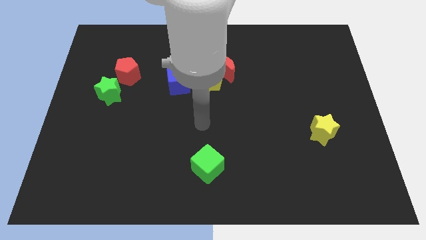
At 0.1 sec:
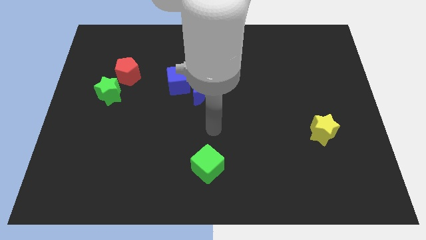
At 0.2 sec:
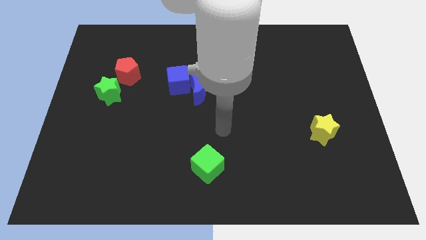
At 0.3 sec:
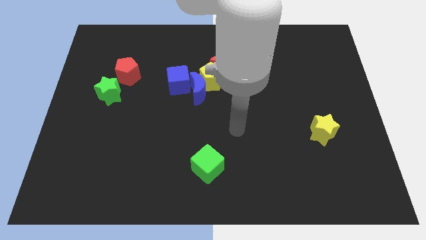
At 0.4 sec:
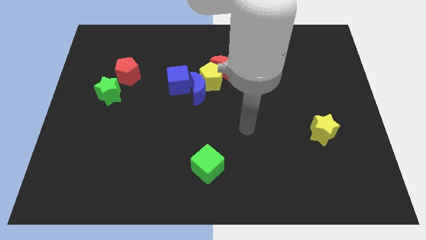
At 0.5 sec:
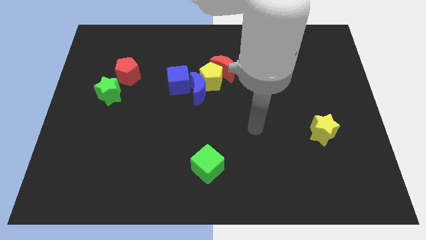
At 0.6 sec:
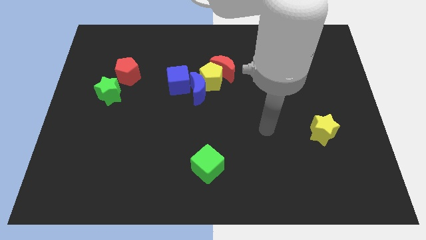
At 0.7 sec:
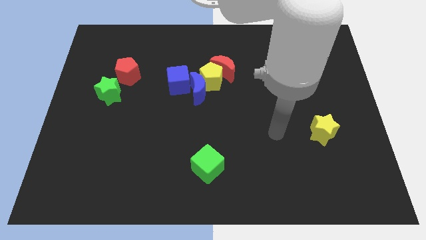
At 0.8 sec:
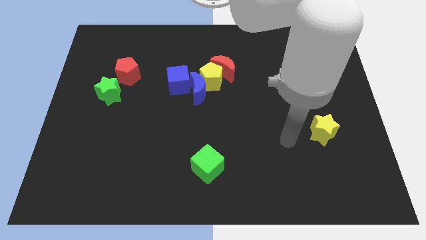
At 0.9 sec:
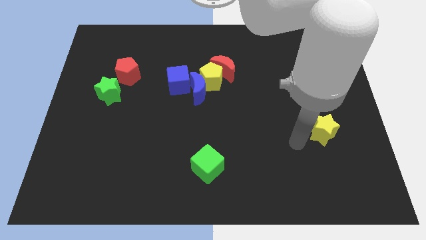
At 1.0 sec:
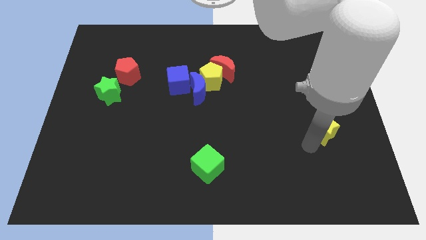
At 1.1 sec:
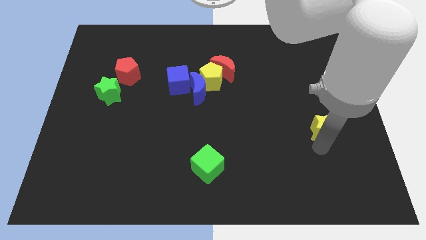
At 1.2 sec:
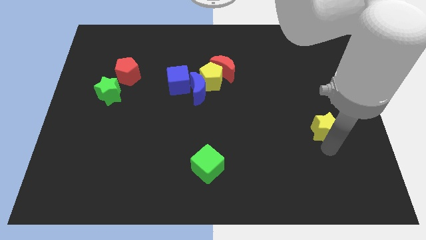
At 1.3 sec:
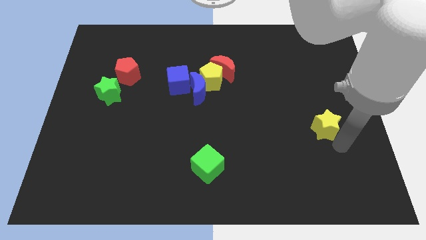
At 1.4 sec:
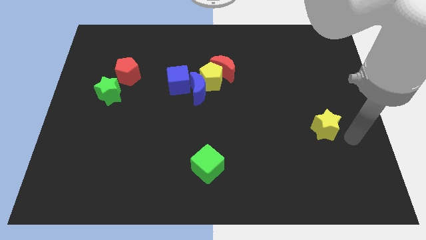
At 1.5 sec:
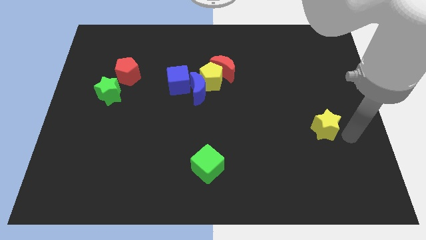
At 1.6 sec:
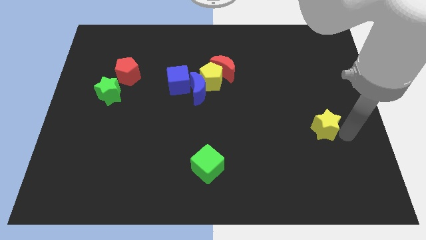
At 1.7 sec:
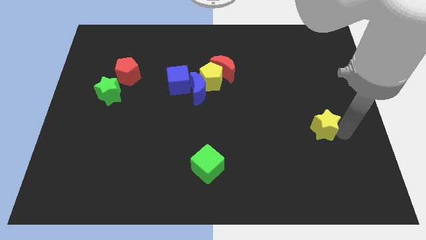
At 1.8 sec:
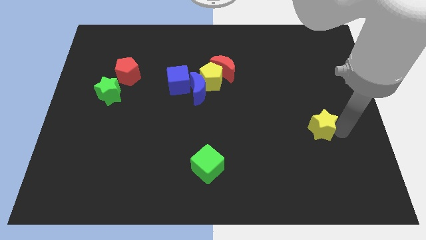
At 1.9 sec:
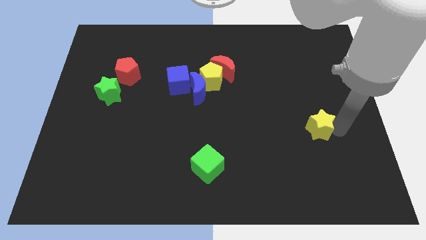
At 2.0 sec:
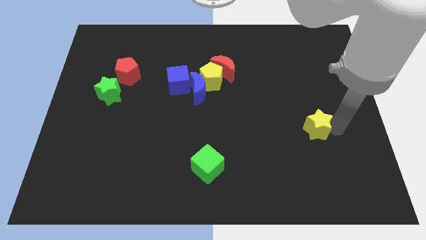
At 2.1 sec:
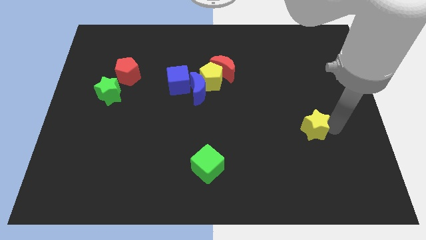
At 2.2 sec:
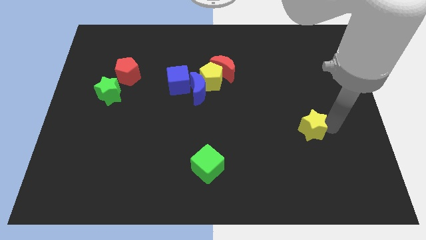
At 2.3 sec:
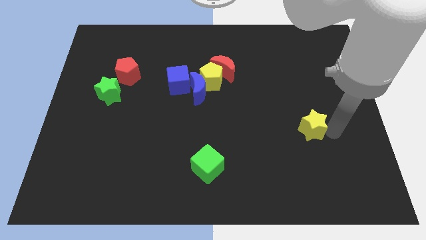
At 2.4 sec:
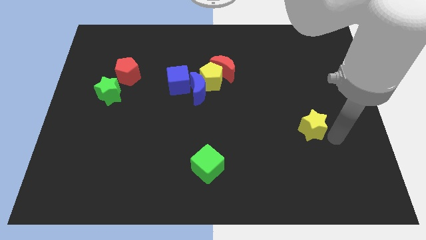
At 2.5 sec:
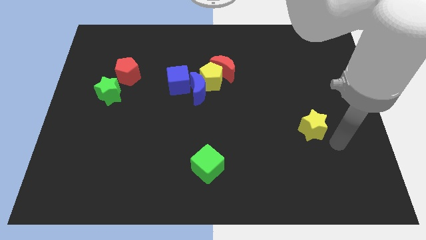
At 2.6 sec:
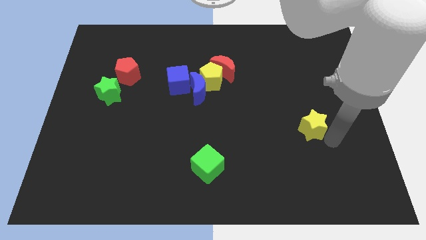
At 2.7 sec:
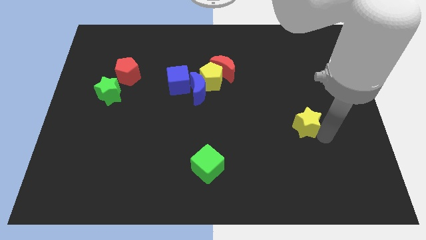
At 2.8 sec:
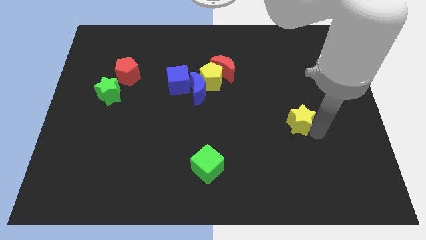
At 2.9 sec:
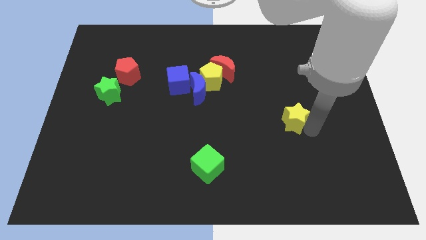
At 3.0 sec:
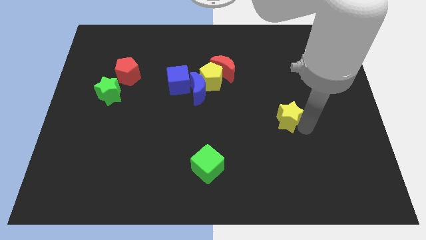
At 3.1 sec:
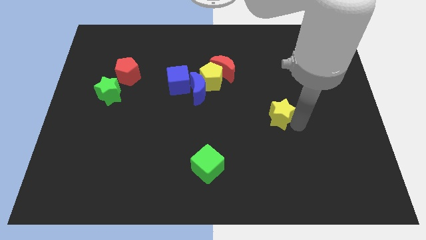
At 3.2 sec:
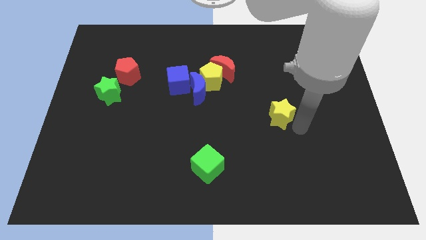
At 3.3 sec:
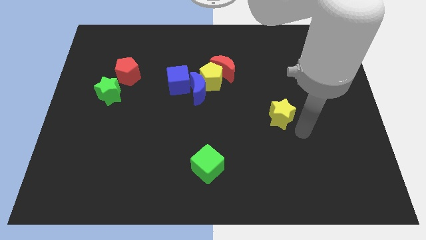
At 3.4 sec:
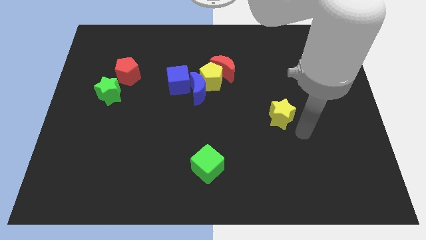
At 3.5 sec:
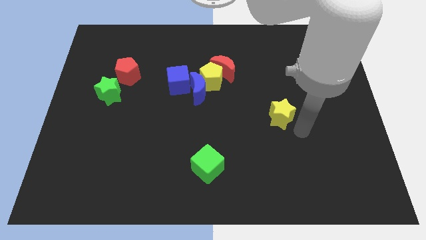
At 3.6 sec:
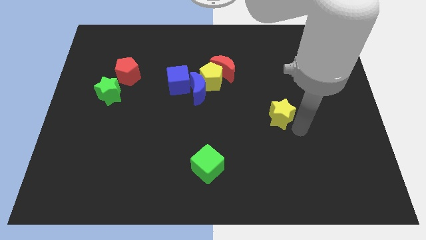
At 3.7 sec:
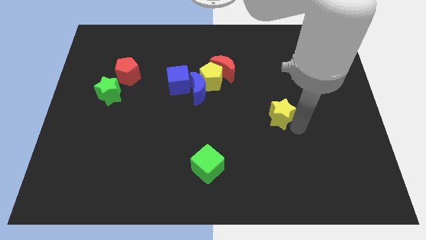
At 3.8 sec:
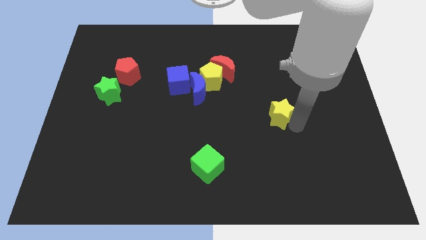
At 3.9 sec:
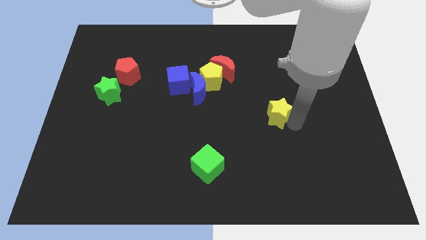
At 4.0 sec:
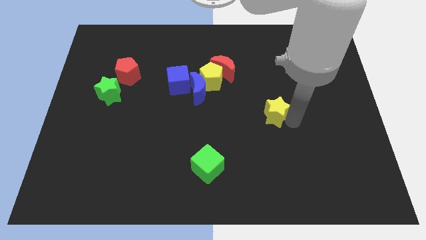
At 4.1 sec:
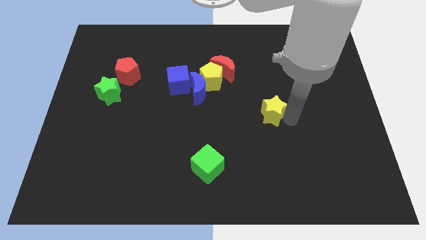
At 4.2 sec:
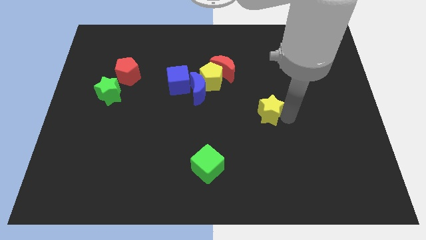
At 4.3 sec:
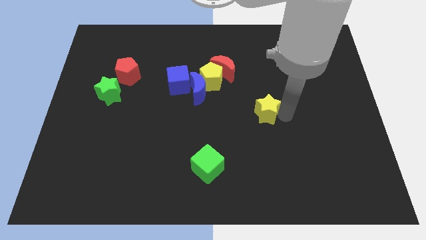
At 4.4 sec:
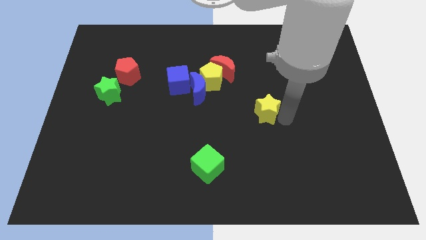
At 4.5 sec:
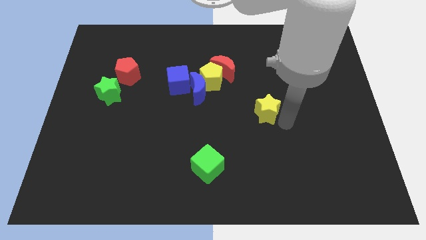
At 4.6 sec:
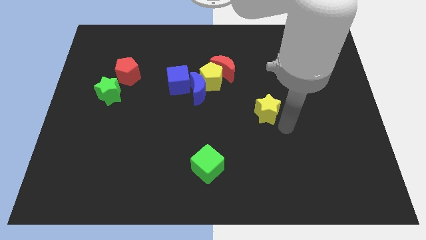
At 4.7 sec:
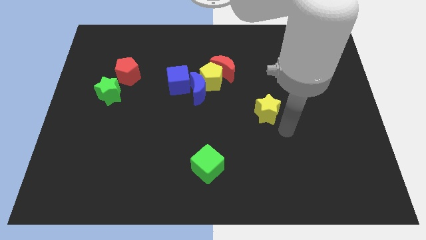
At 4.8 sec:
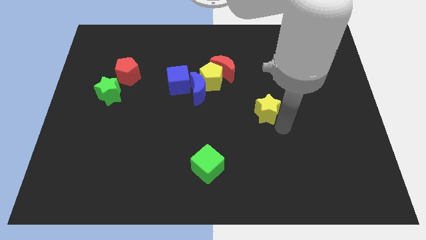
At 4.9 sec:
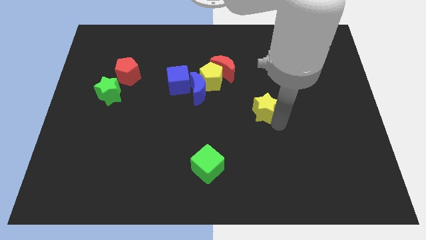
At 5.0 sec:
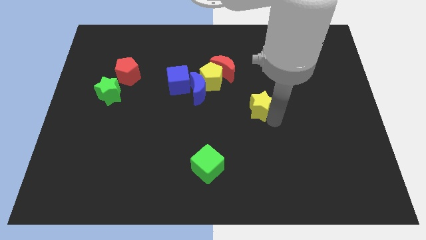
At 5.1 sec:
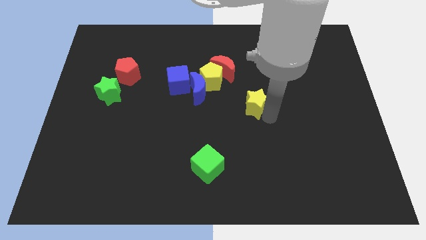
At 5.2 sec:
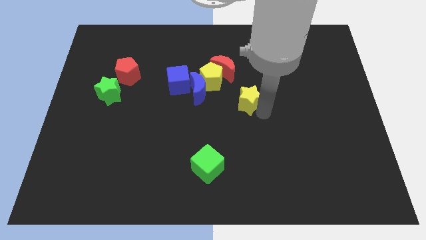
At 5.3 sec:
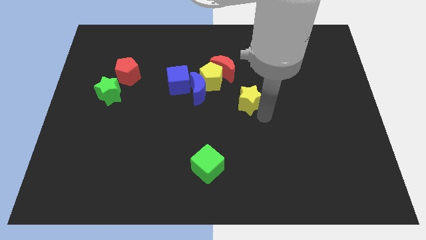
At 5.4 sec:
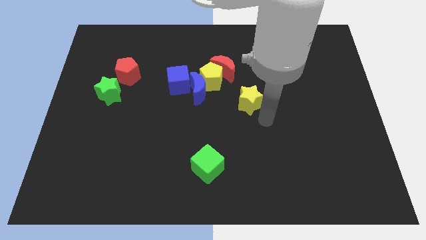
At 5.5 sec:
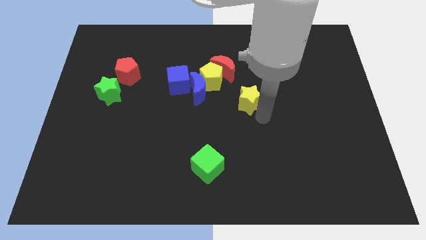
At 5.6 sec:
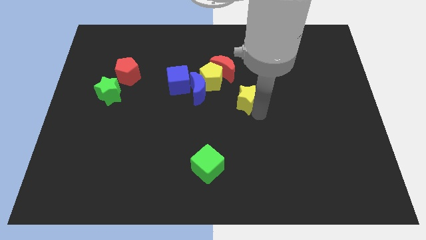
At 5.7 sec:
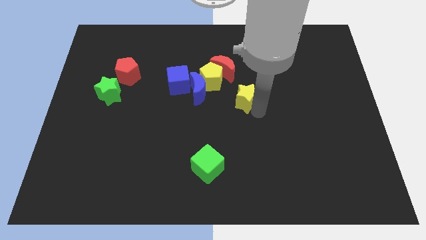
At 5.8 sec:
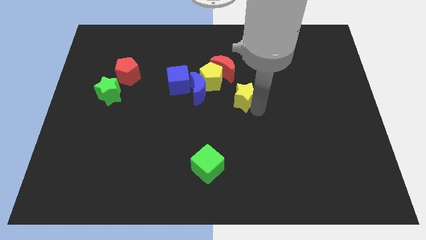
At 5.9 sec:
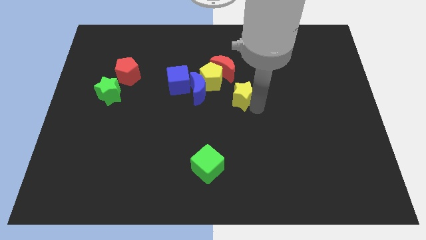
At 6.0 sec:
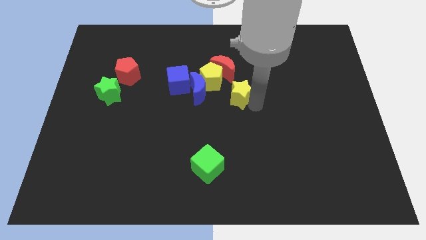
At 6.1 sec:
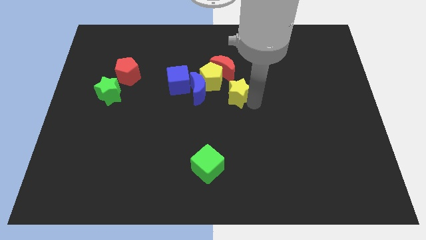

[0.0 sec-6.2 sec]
push the yellow star just right of the blue cube

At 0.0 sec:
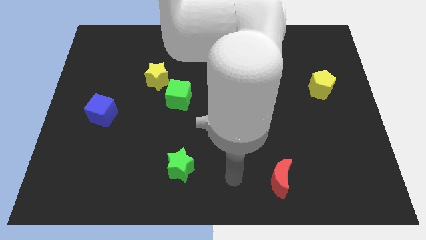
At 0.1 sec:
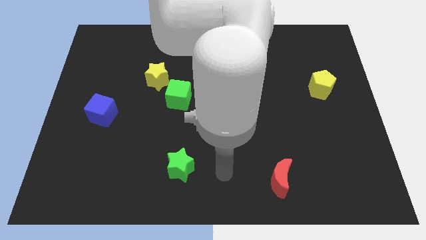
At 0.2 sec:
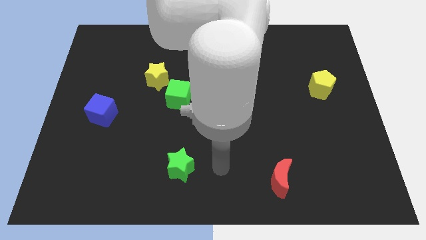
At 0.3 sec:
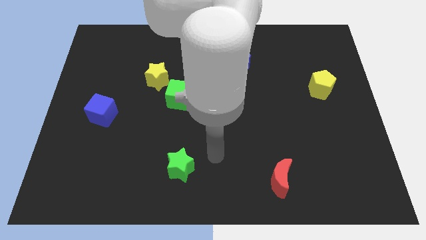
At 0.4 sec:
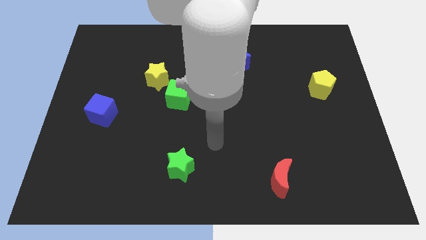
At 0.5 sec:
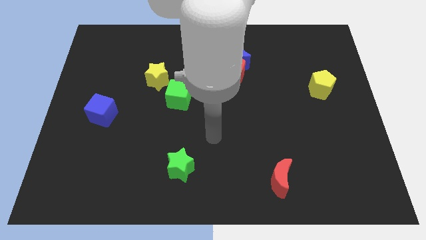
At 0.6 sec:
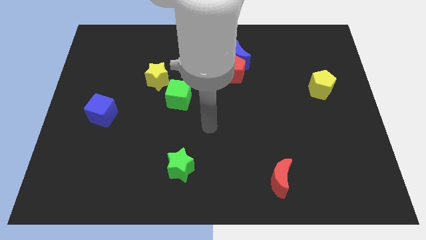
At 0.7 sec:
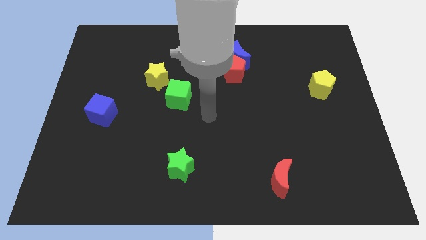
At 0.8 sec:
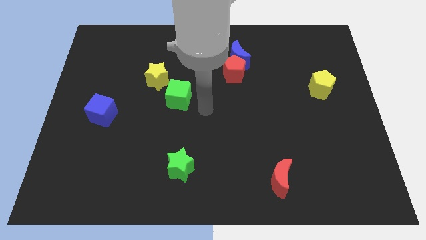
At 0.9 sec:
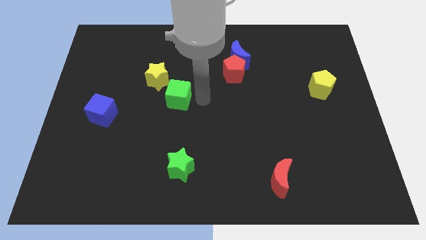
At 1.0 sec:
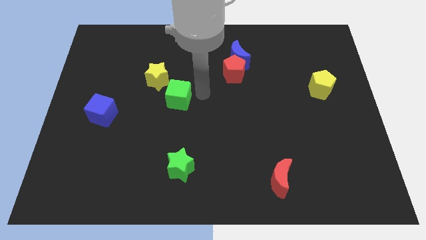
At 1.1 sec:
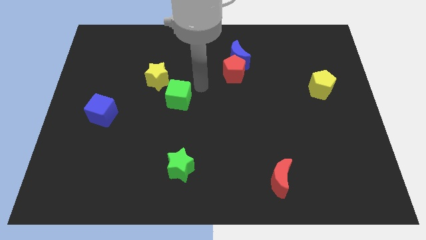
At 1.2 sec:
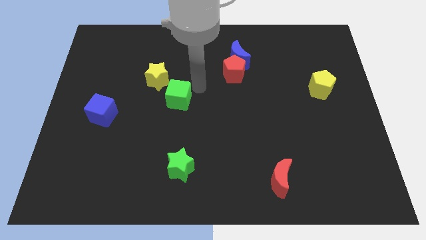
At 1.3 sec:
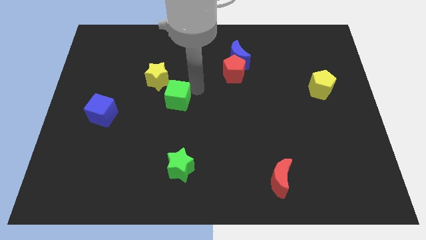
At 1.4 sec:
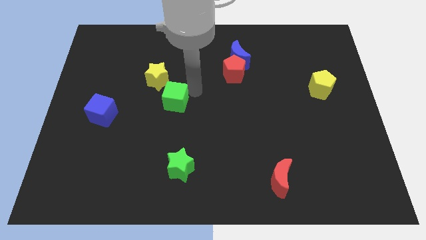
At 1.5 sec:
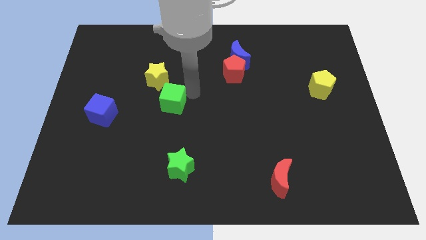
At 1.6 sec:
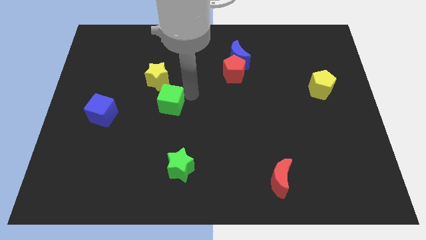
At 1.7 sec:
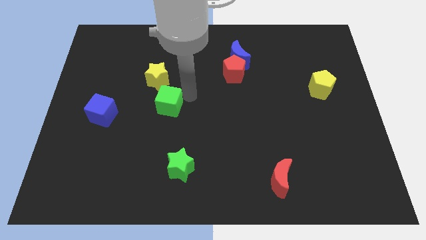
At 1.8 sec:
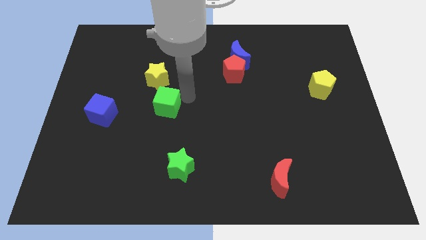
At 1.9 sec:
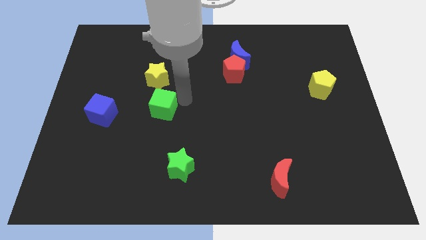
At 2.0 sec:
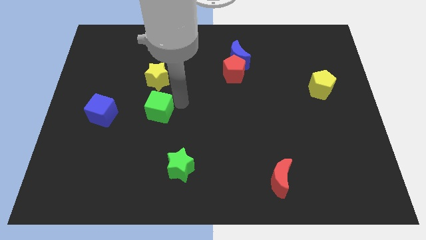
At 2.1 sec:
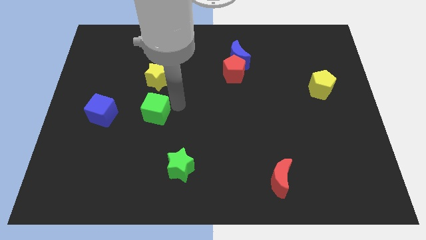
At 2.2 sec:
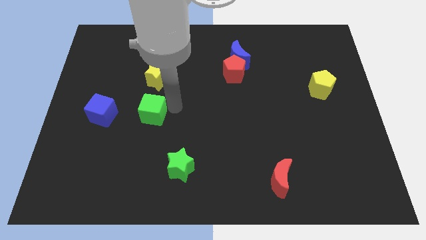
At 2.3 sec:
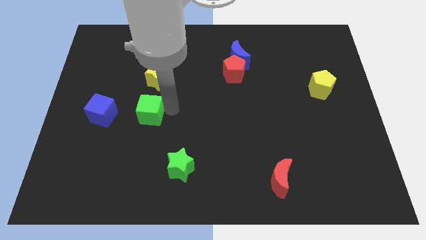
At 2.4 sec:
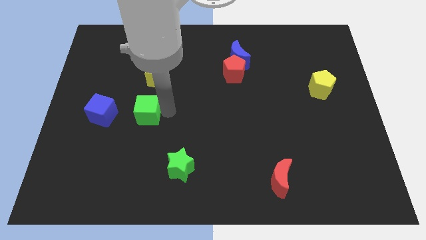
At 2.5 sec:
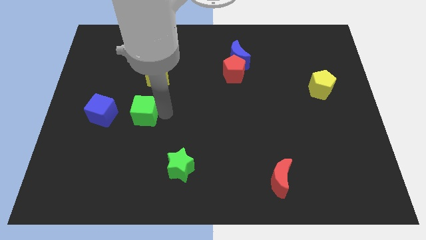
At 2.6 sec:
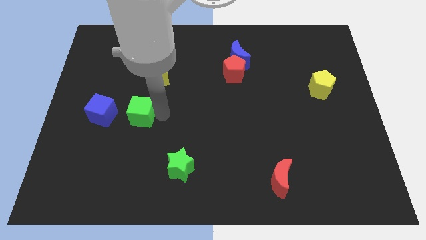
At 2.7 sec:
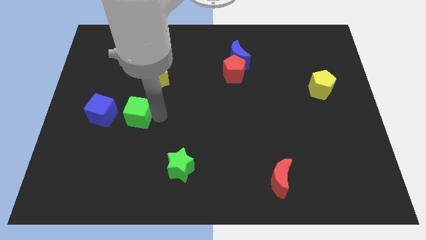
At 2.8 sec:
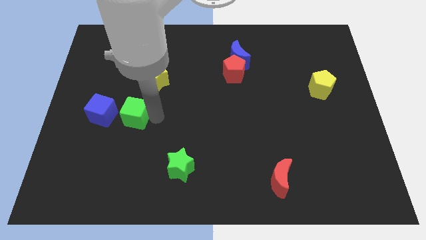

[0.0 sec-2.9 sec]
slide the green cube to the bottom right side of the blue cube
